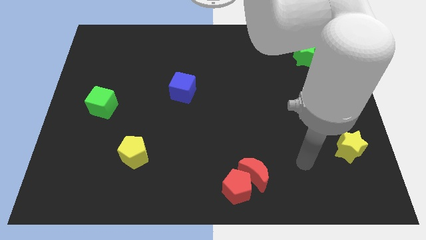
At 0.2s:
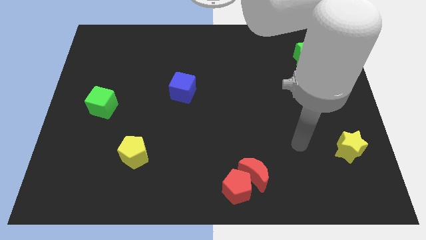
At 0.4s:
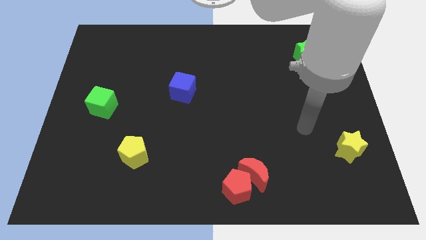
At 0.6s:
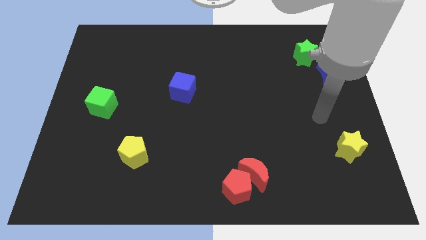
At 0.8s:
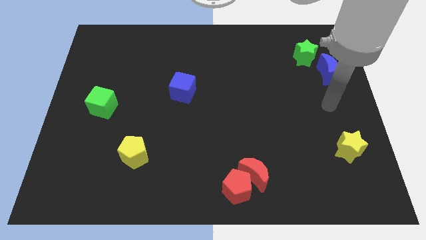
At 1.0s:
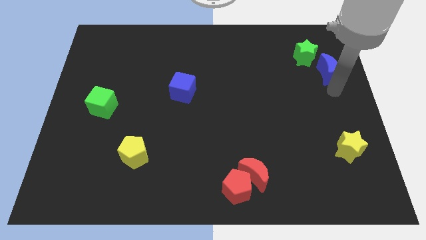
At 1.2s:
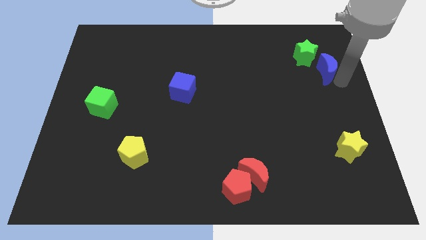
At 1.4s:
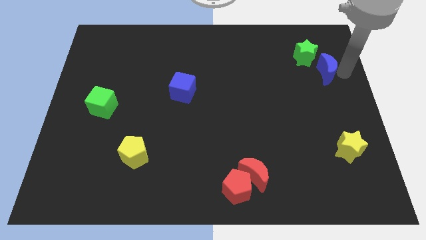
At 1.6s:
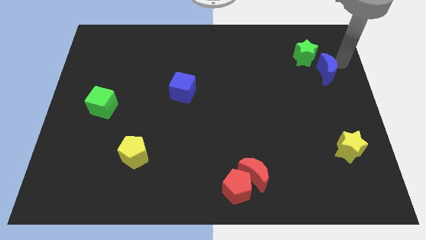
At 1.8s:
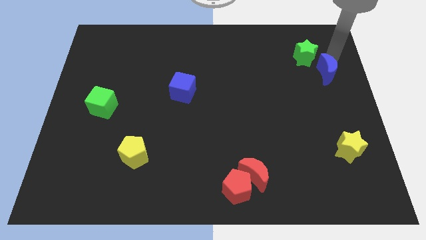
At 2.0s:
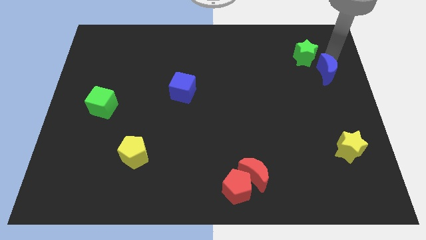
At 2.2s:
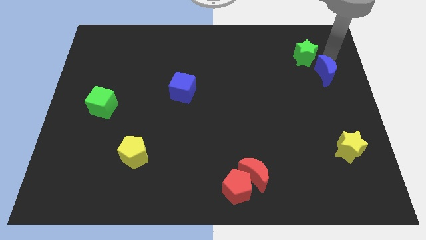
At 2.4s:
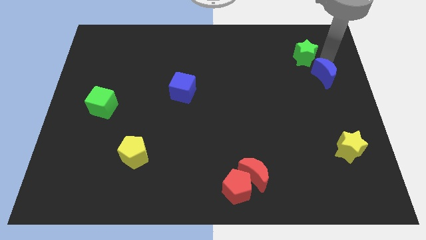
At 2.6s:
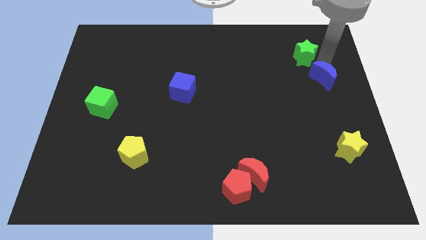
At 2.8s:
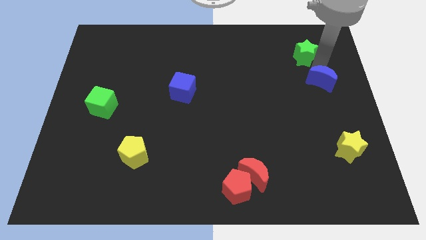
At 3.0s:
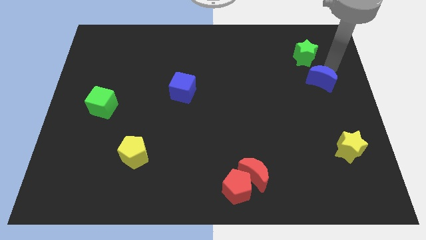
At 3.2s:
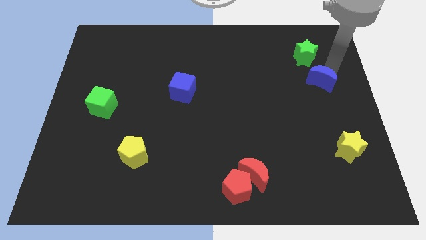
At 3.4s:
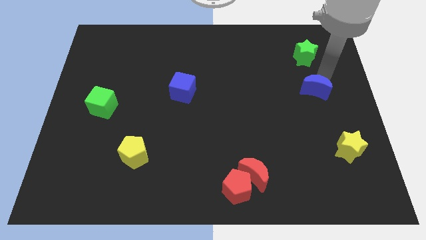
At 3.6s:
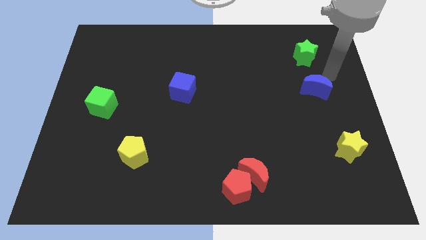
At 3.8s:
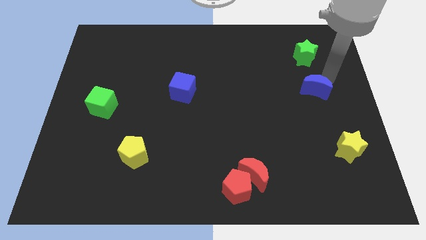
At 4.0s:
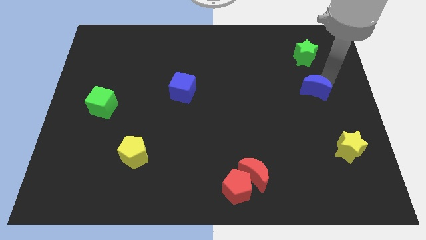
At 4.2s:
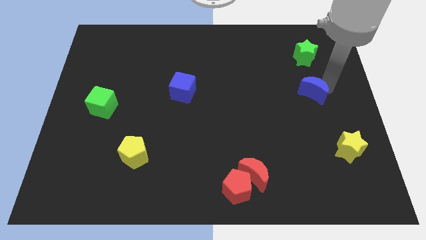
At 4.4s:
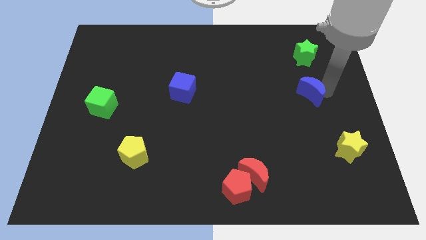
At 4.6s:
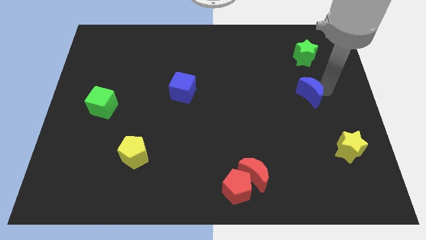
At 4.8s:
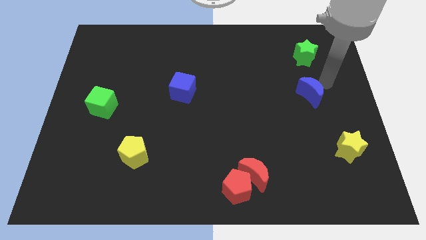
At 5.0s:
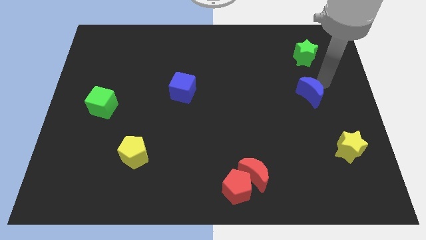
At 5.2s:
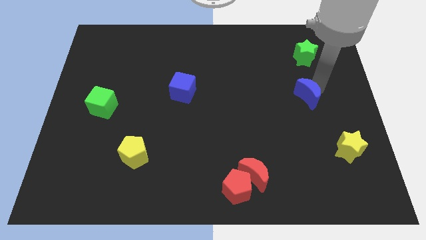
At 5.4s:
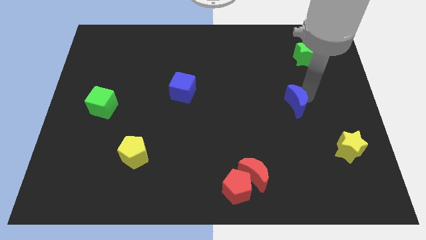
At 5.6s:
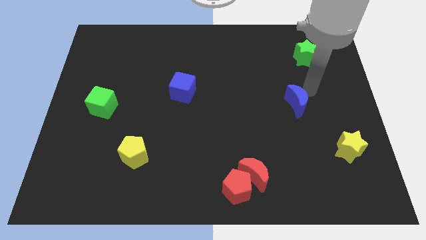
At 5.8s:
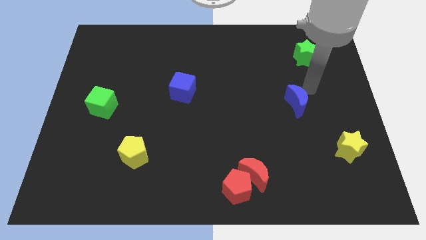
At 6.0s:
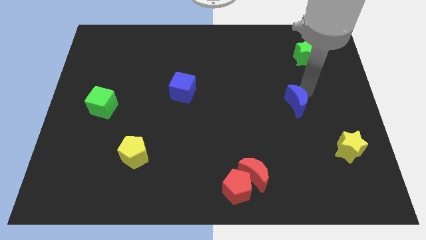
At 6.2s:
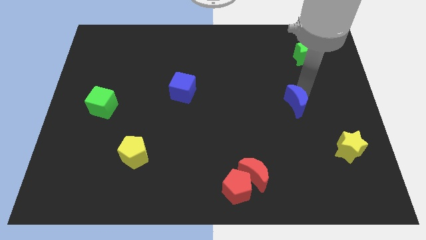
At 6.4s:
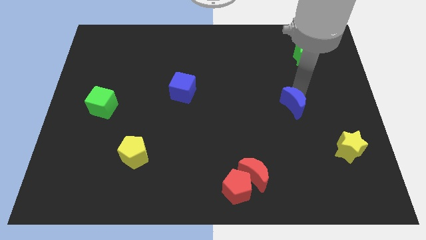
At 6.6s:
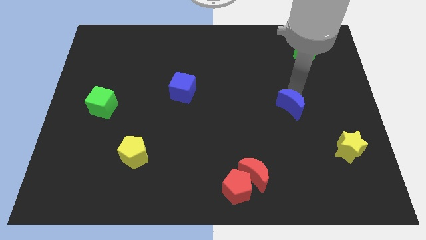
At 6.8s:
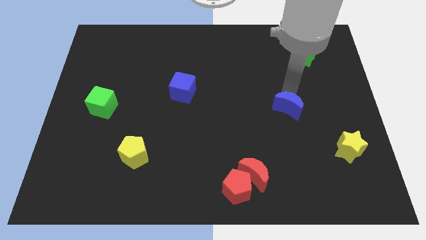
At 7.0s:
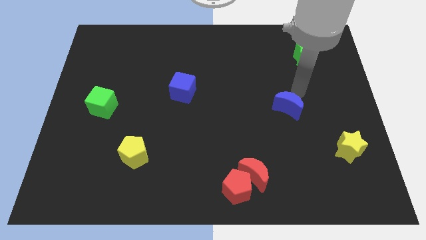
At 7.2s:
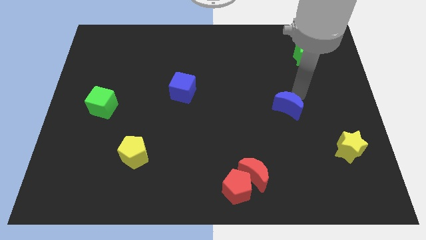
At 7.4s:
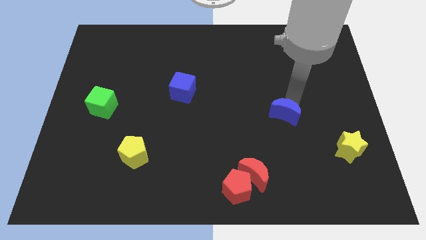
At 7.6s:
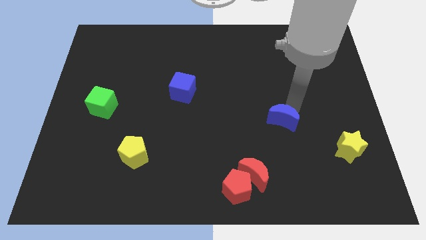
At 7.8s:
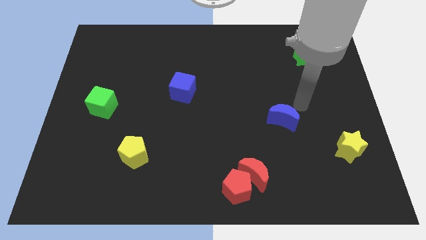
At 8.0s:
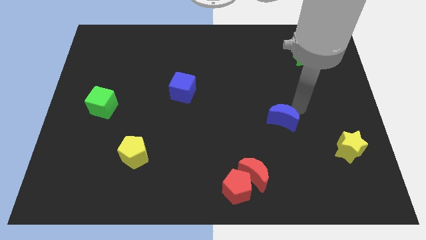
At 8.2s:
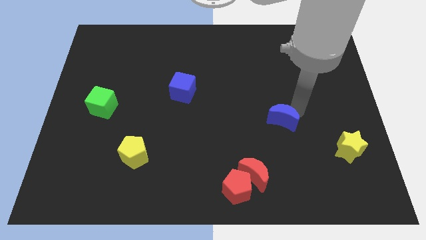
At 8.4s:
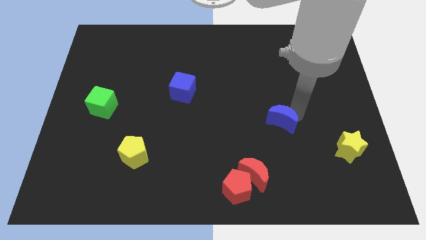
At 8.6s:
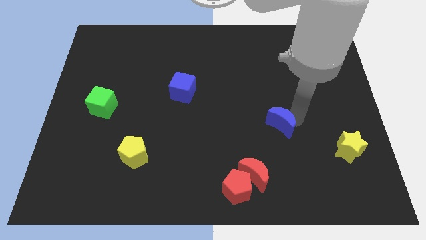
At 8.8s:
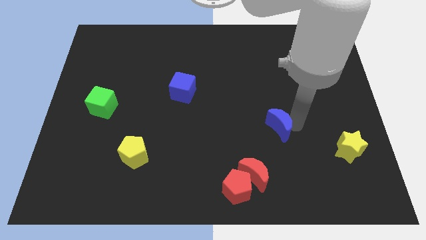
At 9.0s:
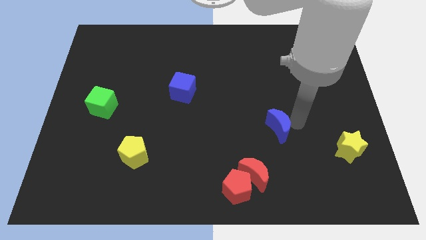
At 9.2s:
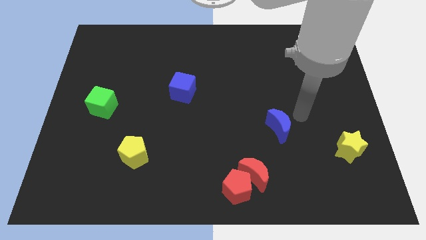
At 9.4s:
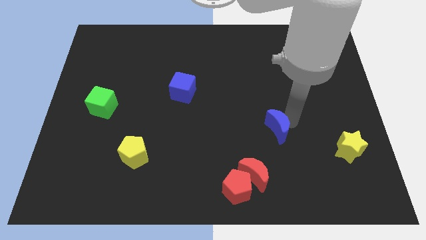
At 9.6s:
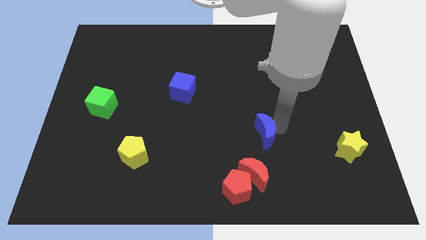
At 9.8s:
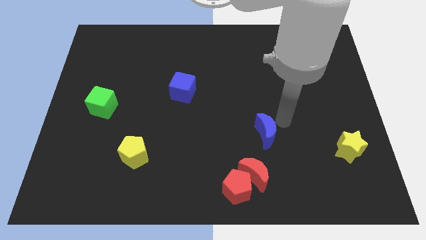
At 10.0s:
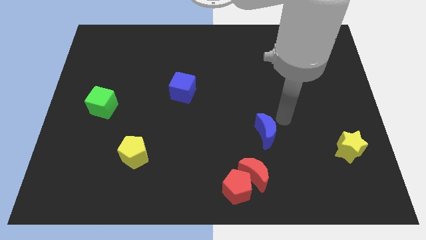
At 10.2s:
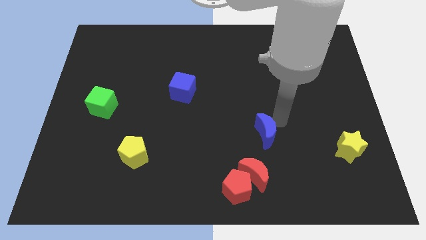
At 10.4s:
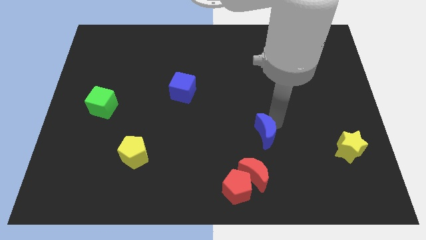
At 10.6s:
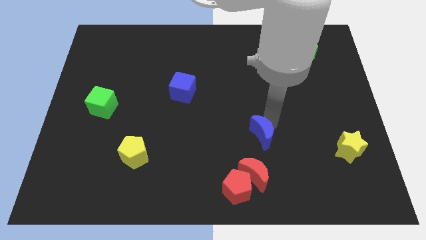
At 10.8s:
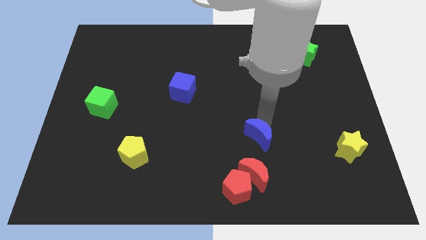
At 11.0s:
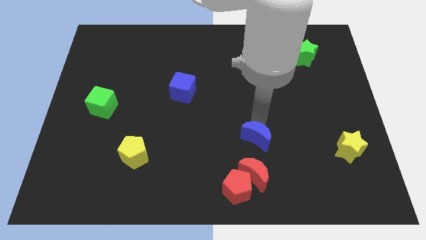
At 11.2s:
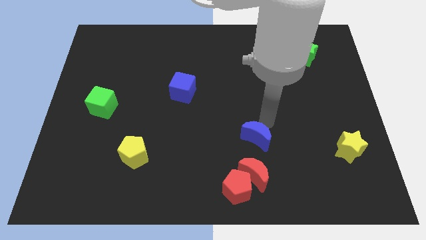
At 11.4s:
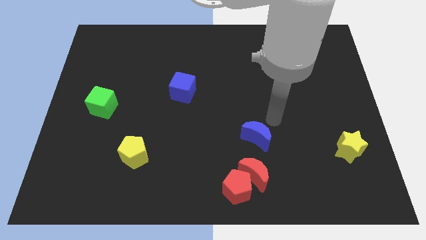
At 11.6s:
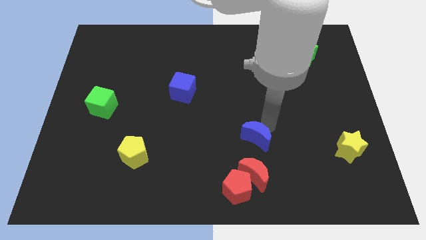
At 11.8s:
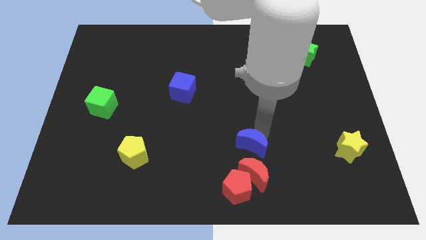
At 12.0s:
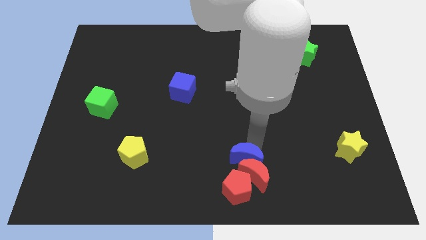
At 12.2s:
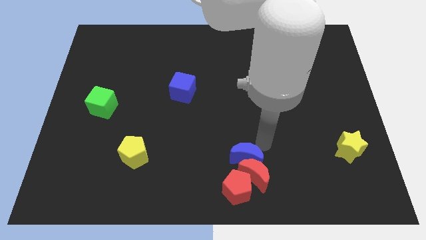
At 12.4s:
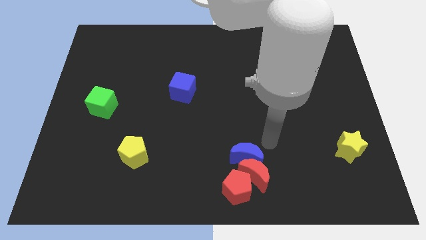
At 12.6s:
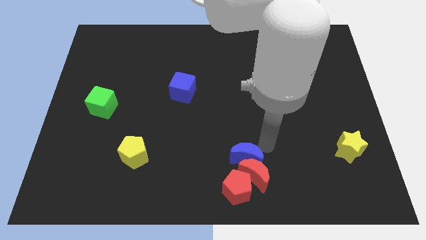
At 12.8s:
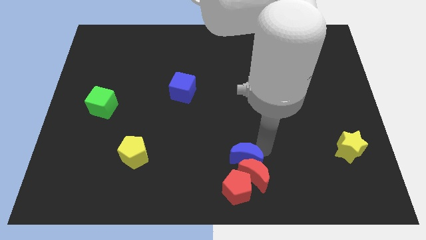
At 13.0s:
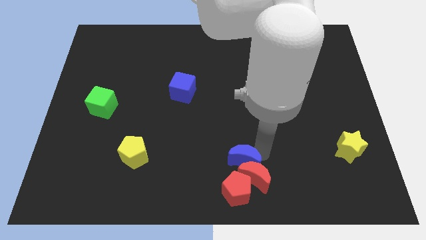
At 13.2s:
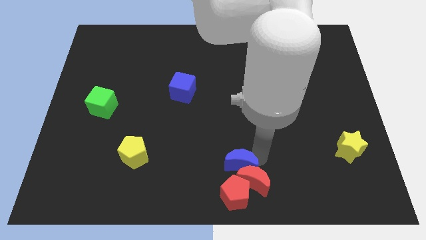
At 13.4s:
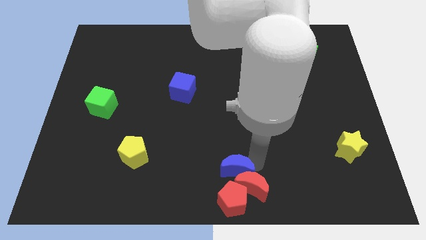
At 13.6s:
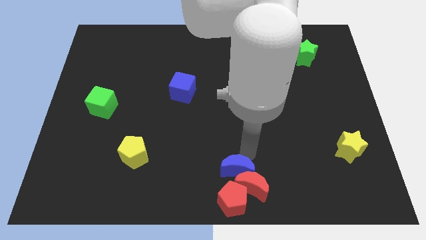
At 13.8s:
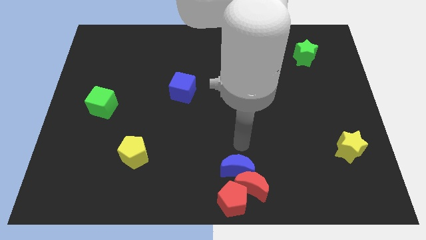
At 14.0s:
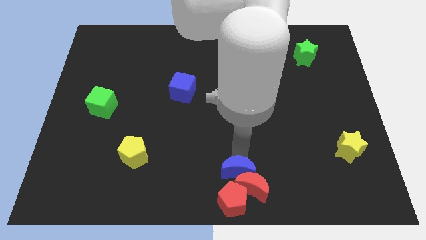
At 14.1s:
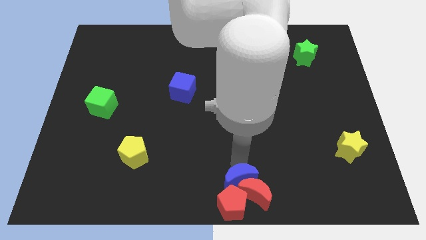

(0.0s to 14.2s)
move the blue moon close to the red pentagon

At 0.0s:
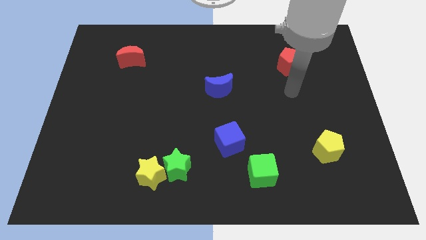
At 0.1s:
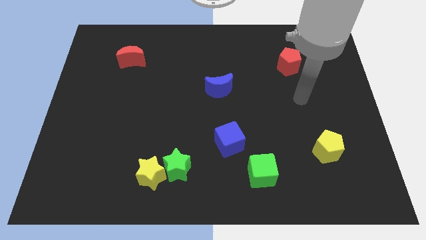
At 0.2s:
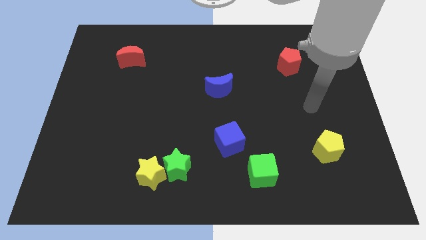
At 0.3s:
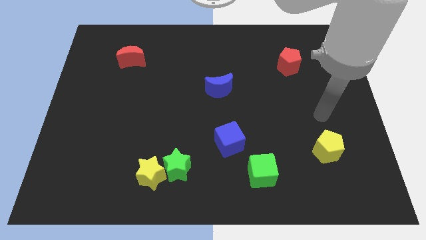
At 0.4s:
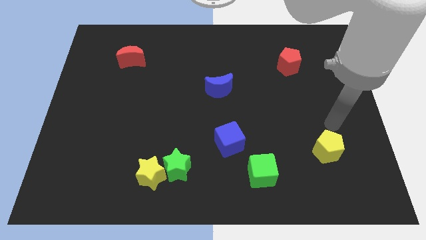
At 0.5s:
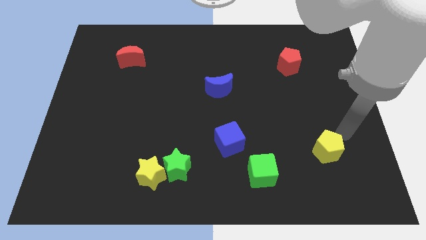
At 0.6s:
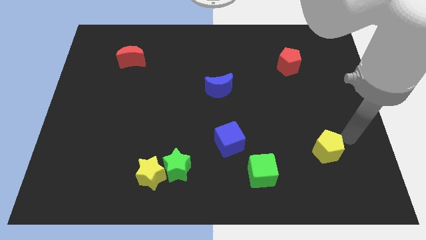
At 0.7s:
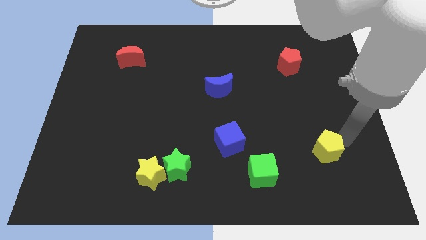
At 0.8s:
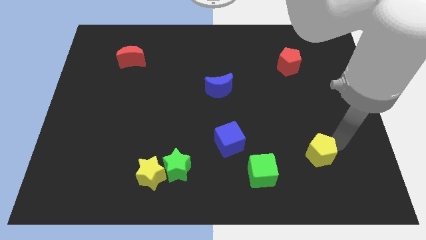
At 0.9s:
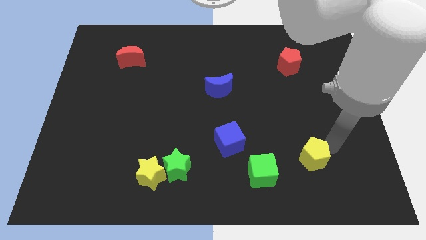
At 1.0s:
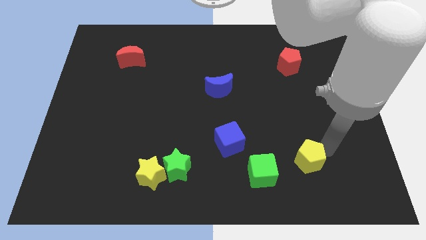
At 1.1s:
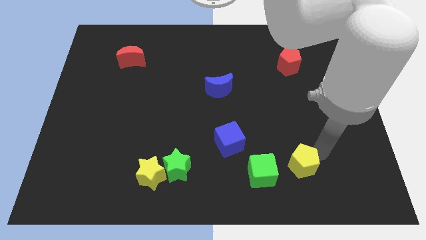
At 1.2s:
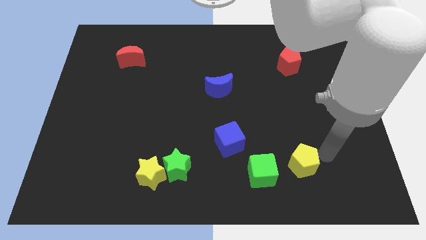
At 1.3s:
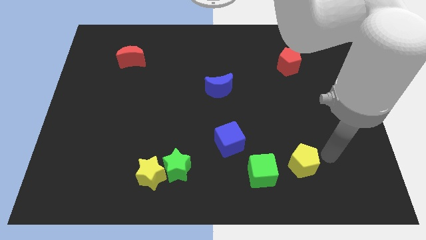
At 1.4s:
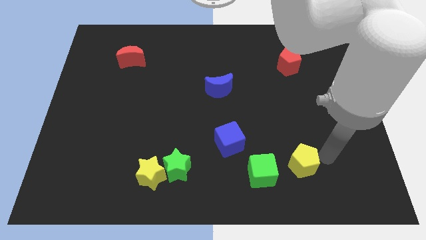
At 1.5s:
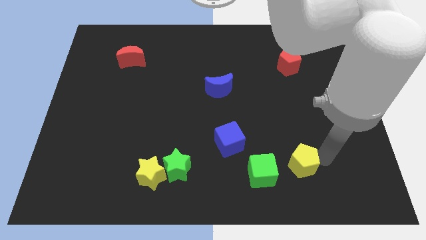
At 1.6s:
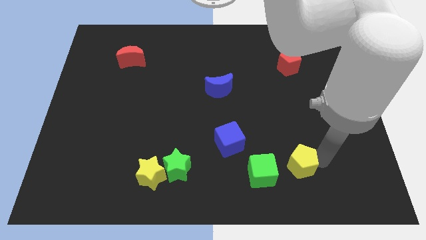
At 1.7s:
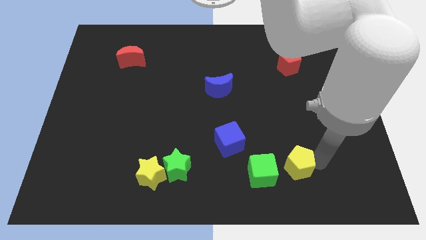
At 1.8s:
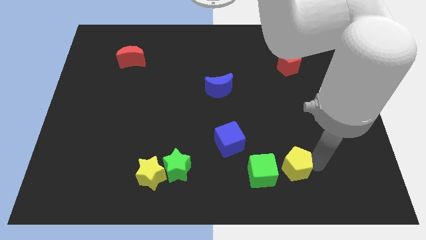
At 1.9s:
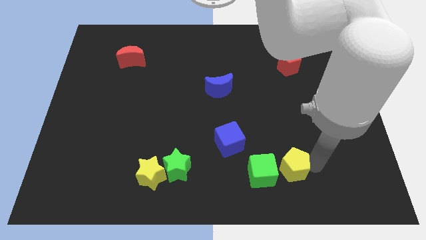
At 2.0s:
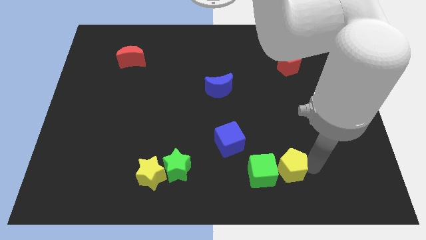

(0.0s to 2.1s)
move the yellow pentagon next to the green cube
